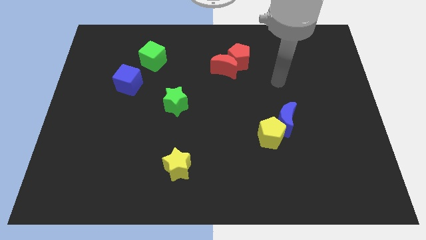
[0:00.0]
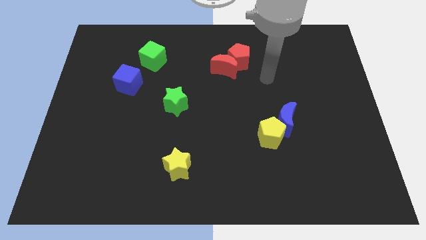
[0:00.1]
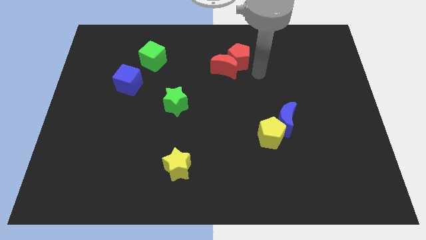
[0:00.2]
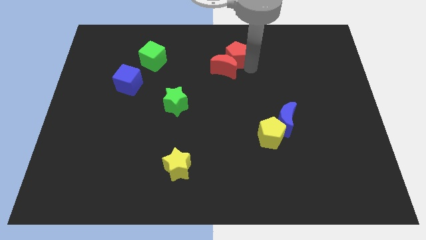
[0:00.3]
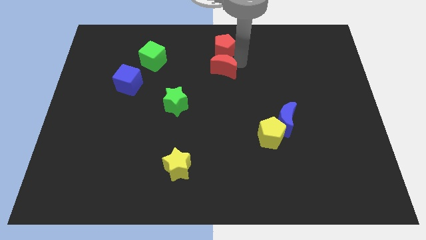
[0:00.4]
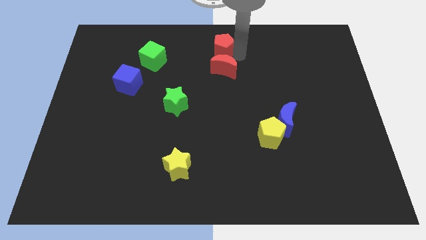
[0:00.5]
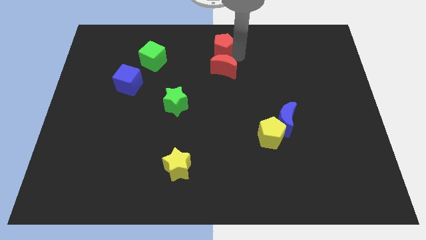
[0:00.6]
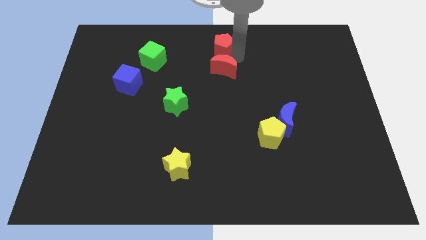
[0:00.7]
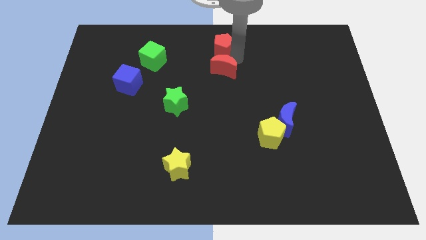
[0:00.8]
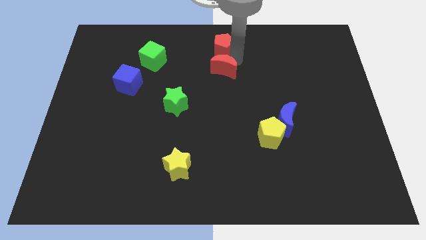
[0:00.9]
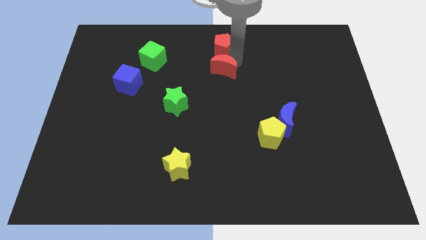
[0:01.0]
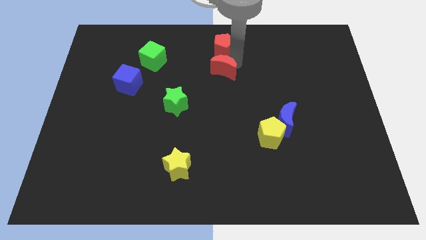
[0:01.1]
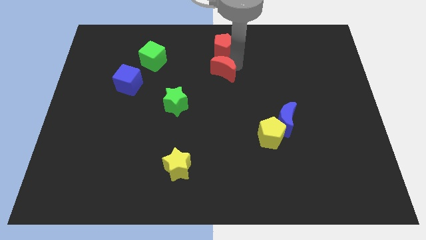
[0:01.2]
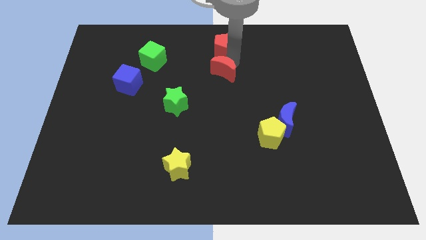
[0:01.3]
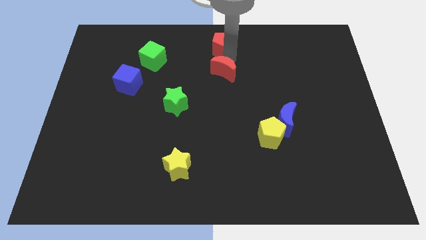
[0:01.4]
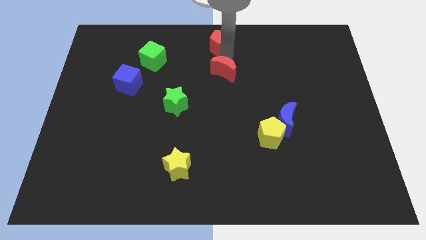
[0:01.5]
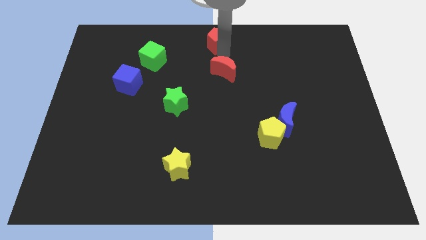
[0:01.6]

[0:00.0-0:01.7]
separate the red moon from the red pentagon

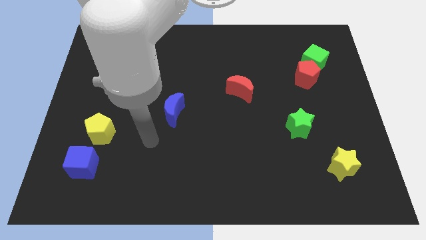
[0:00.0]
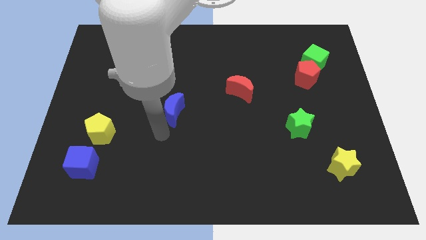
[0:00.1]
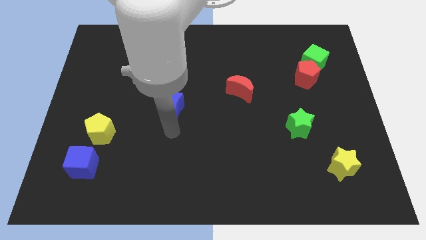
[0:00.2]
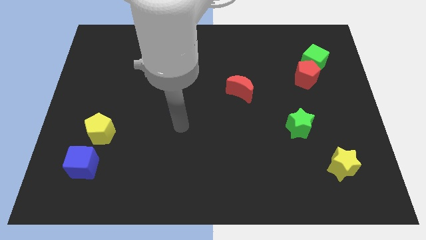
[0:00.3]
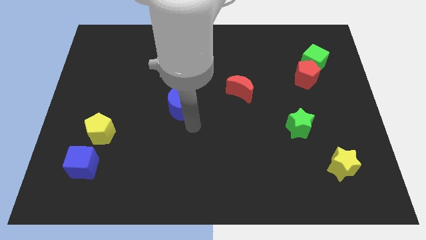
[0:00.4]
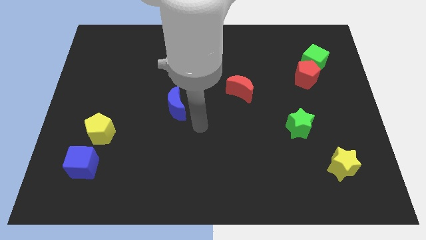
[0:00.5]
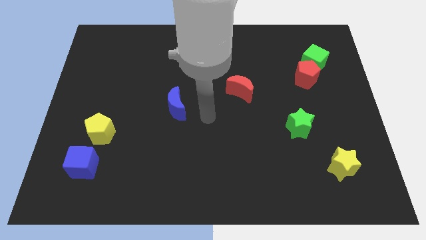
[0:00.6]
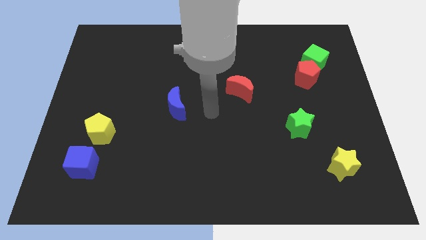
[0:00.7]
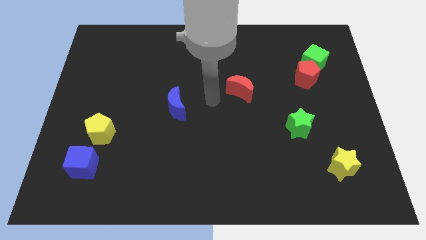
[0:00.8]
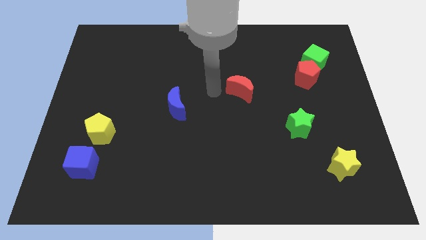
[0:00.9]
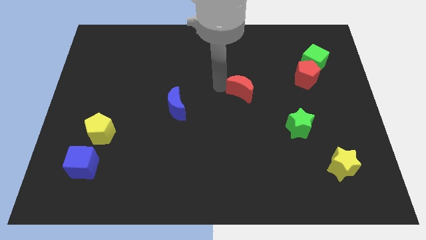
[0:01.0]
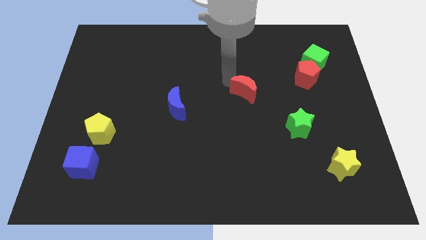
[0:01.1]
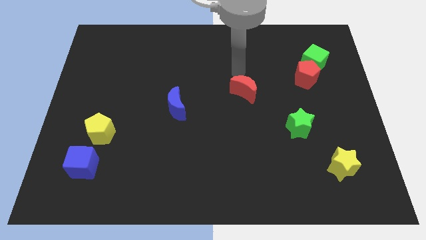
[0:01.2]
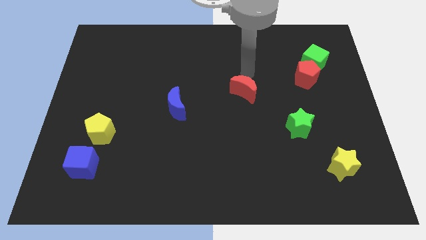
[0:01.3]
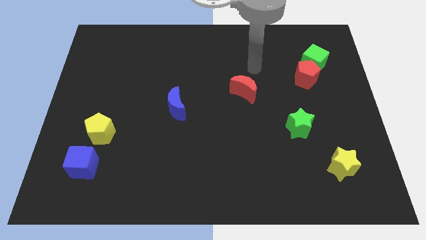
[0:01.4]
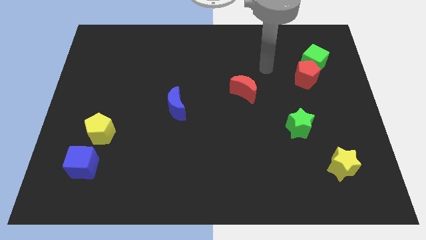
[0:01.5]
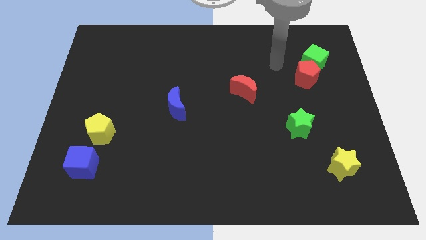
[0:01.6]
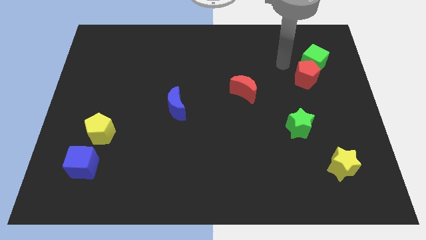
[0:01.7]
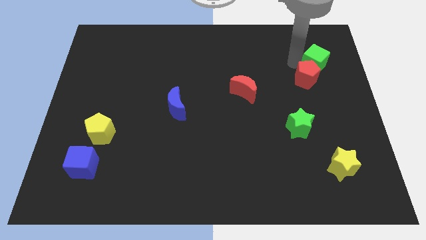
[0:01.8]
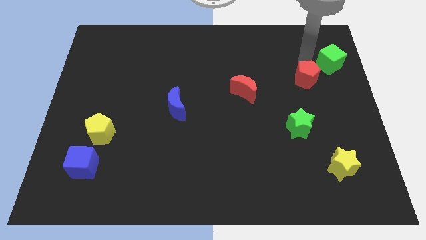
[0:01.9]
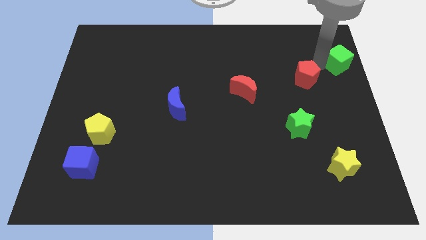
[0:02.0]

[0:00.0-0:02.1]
pull the red pentagon apart from the green cube

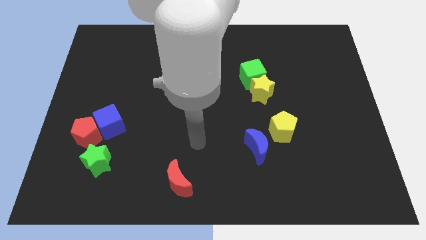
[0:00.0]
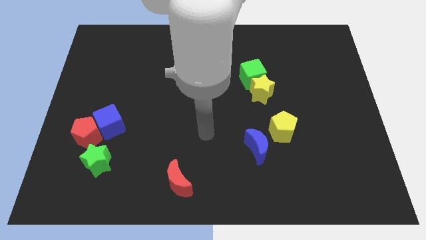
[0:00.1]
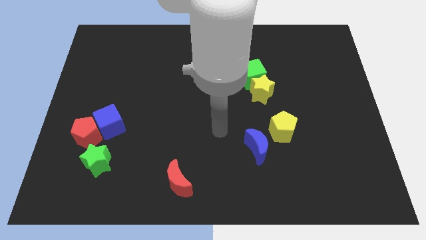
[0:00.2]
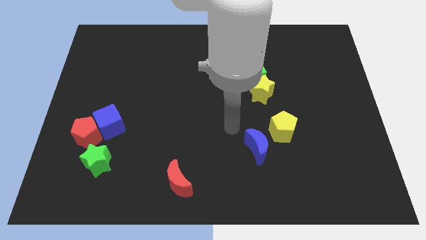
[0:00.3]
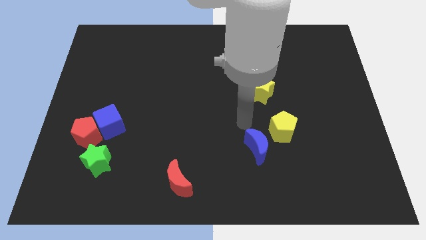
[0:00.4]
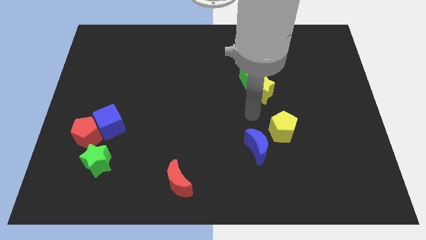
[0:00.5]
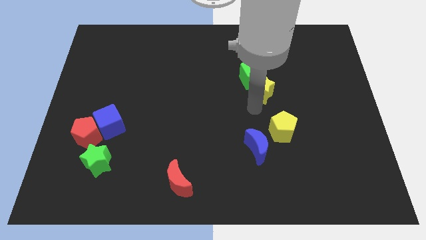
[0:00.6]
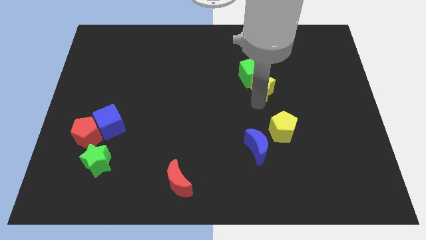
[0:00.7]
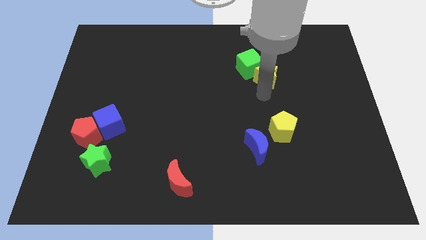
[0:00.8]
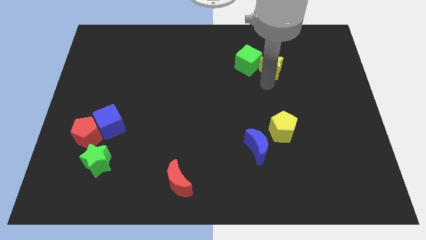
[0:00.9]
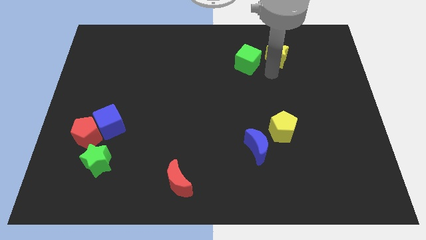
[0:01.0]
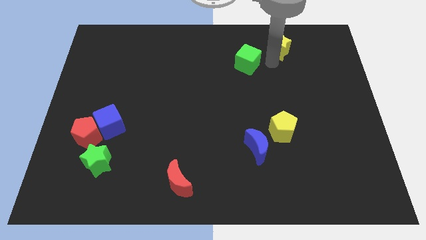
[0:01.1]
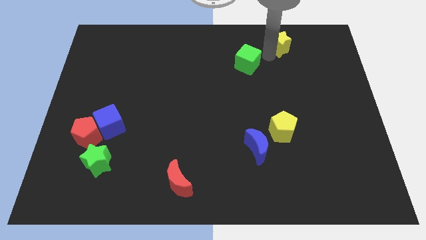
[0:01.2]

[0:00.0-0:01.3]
move the green cube away from the yellow star

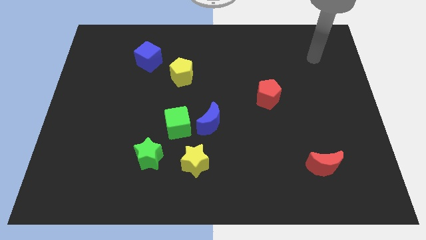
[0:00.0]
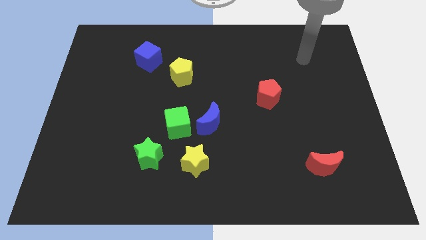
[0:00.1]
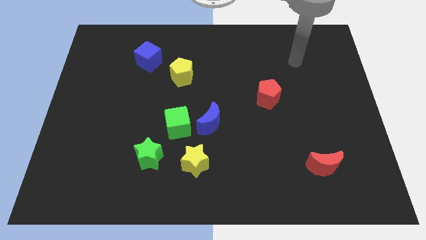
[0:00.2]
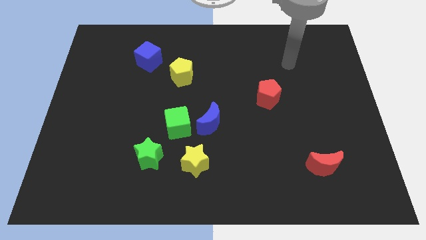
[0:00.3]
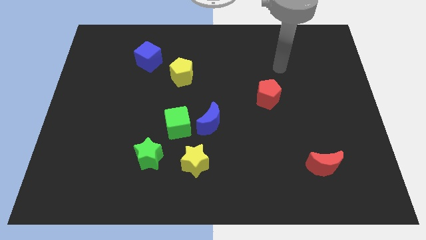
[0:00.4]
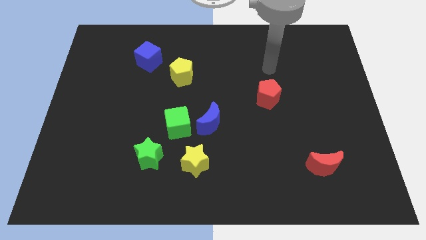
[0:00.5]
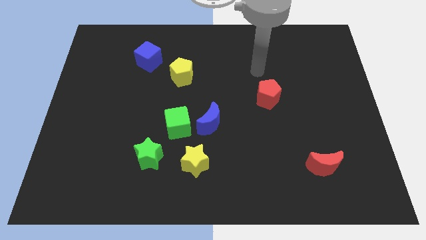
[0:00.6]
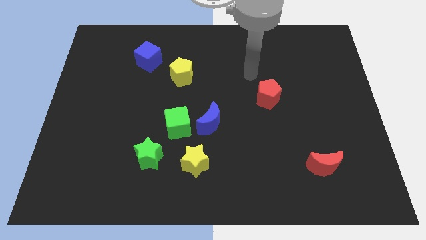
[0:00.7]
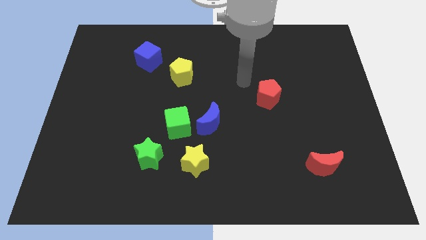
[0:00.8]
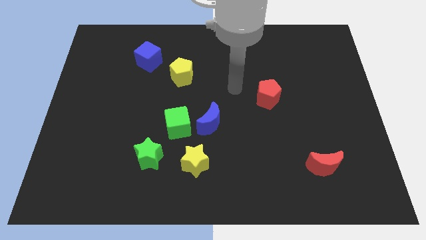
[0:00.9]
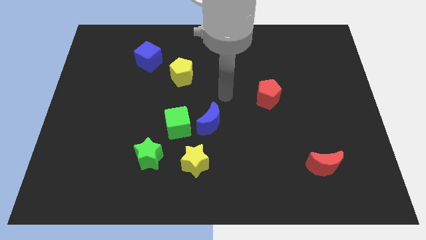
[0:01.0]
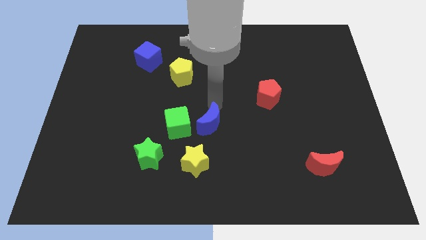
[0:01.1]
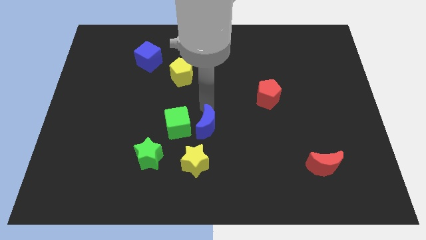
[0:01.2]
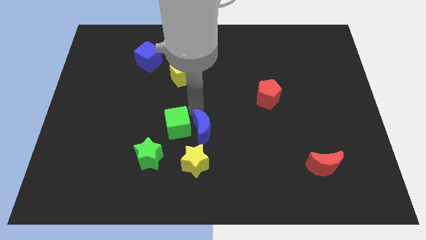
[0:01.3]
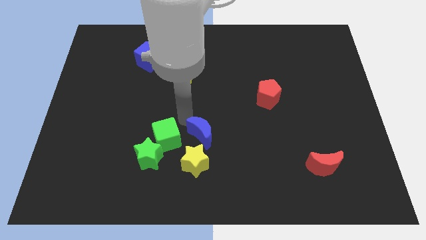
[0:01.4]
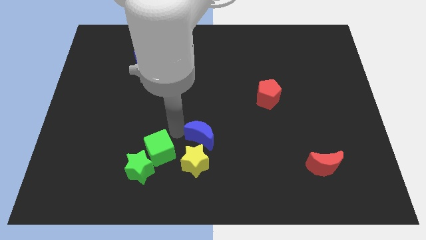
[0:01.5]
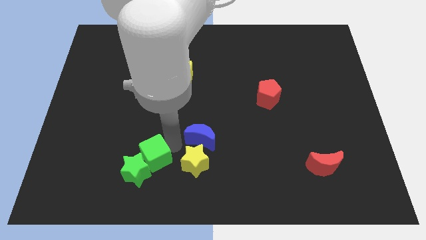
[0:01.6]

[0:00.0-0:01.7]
separate the blue moon from the green cube

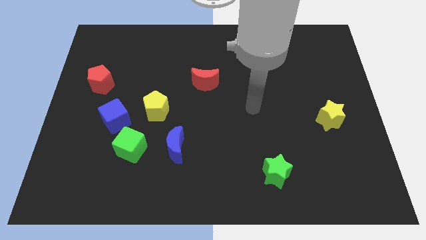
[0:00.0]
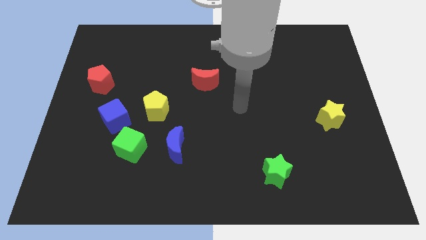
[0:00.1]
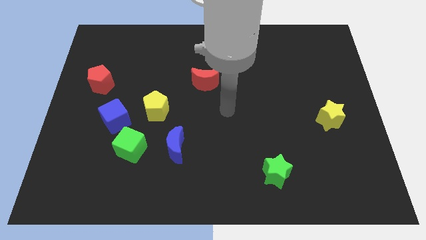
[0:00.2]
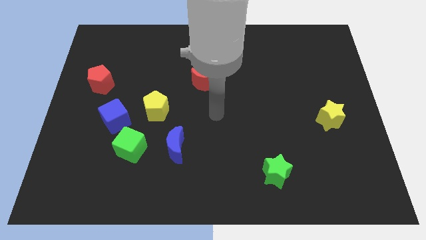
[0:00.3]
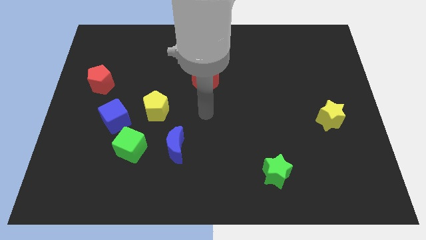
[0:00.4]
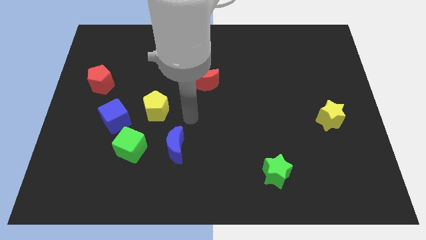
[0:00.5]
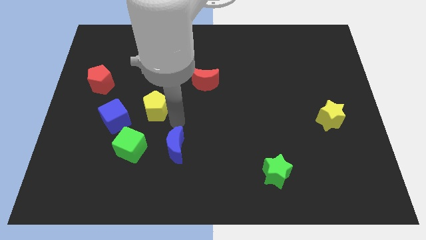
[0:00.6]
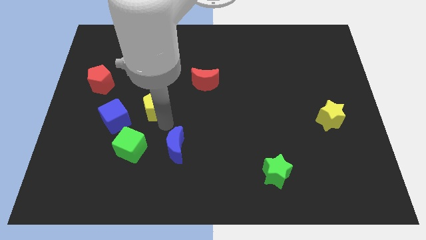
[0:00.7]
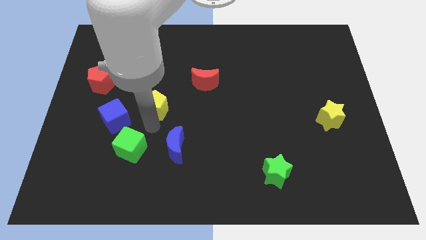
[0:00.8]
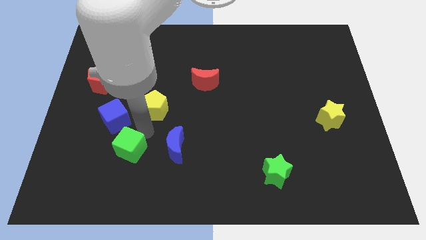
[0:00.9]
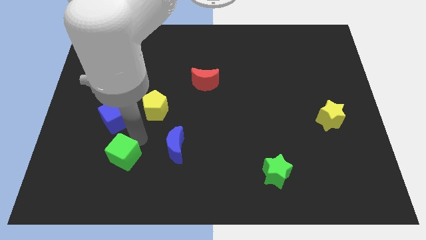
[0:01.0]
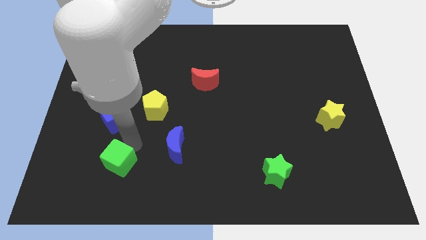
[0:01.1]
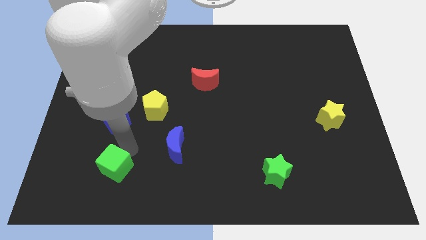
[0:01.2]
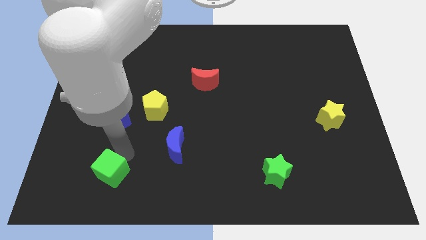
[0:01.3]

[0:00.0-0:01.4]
move the green cube away from the blue cube and blue moon

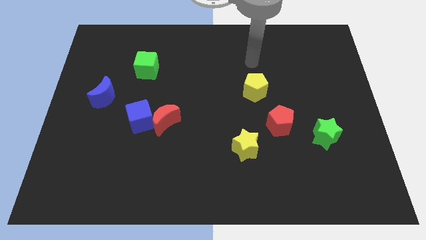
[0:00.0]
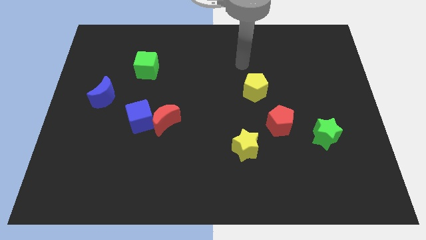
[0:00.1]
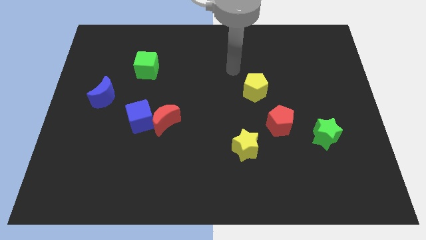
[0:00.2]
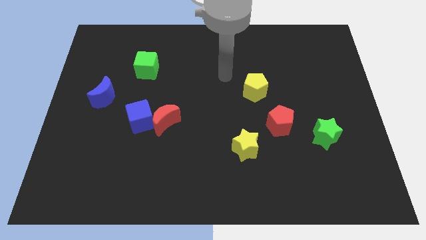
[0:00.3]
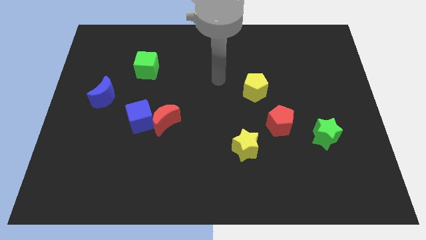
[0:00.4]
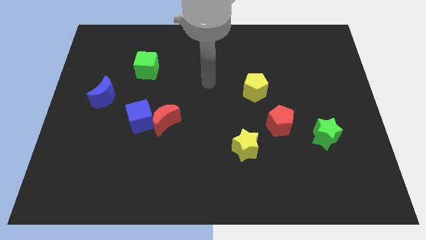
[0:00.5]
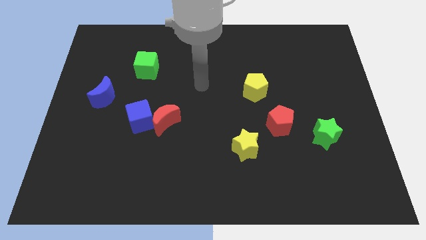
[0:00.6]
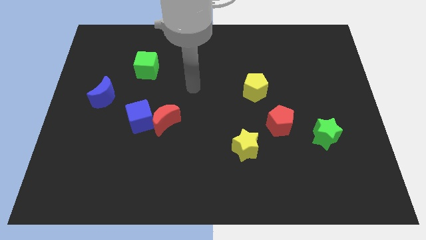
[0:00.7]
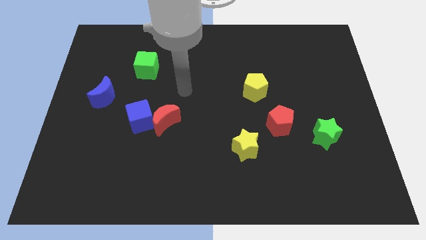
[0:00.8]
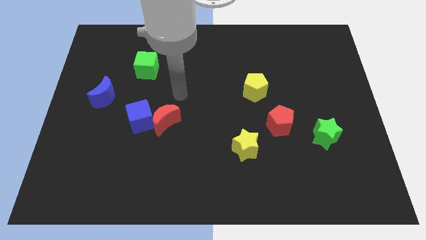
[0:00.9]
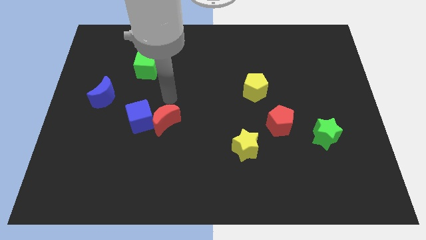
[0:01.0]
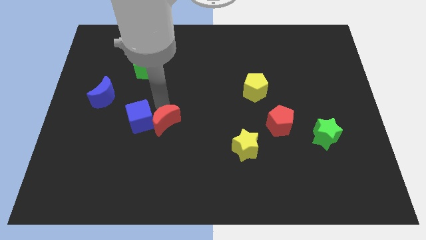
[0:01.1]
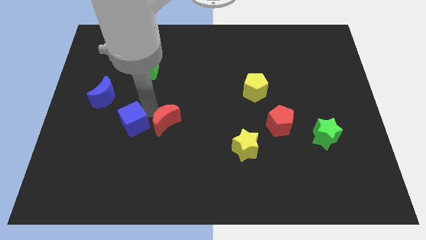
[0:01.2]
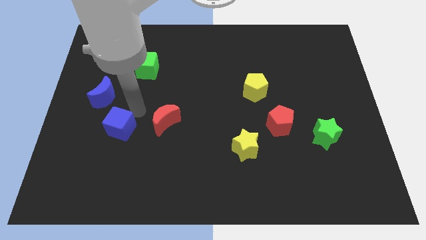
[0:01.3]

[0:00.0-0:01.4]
separate the red moon from the blue cube
